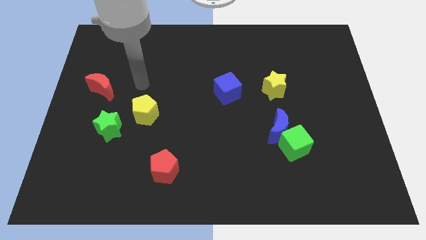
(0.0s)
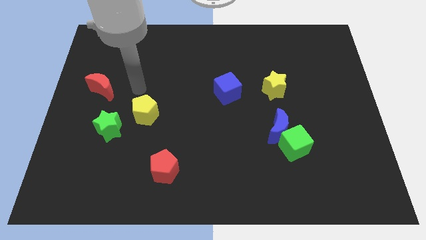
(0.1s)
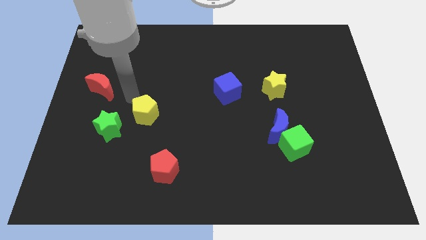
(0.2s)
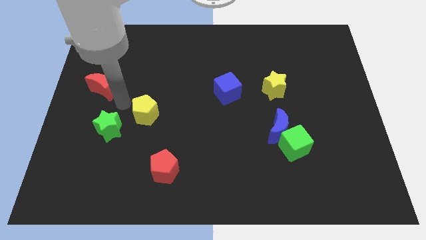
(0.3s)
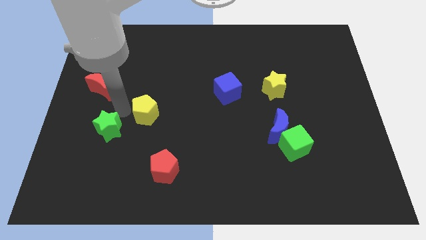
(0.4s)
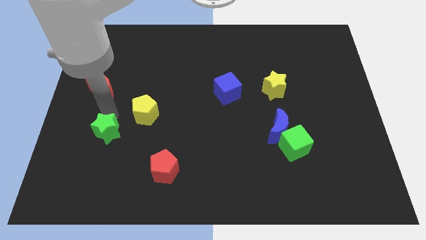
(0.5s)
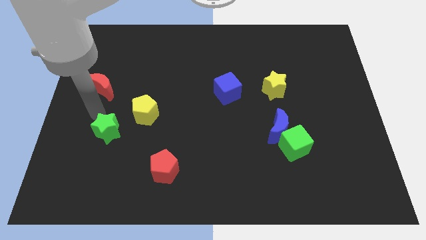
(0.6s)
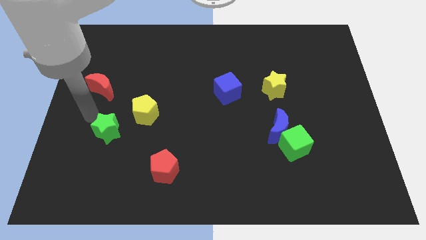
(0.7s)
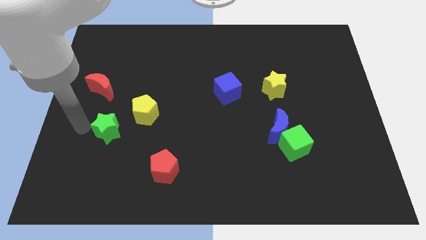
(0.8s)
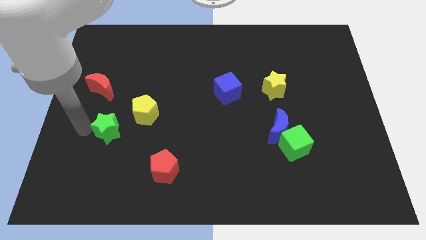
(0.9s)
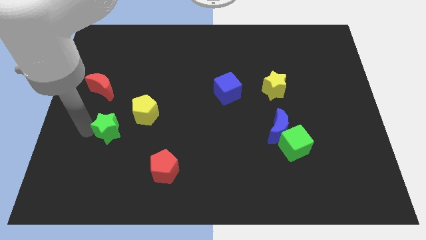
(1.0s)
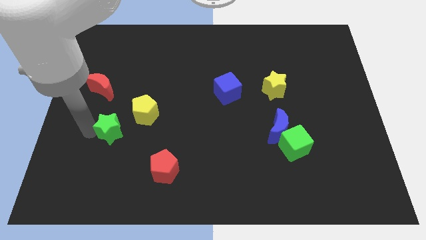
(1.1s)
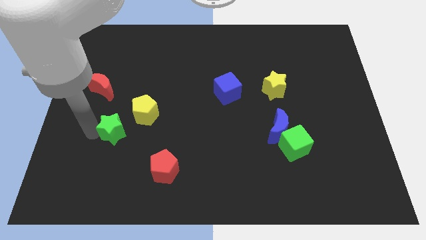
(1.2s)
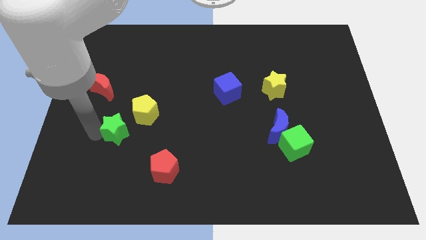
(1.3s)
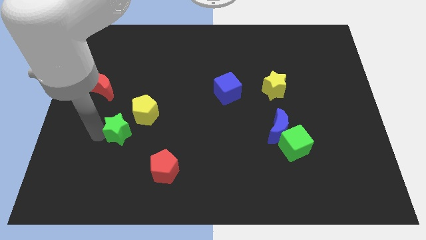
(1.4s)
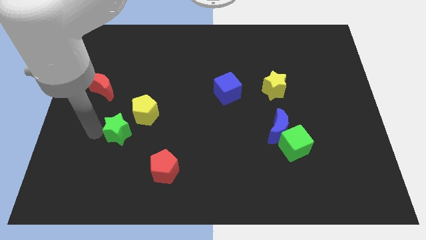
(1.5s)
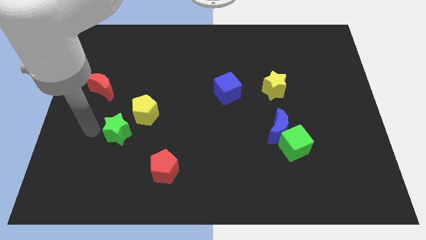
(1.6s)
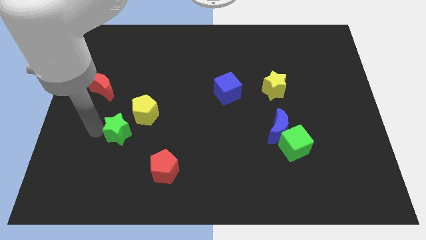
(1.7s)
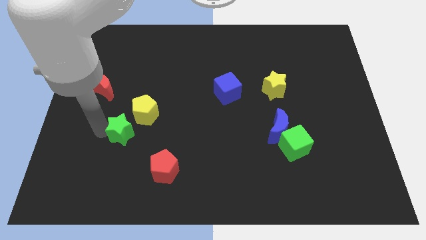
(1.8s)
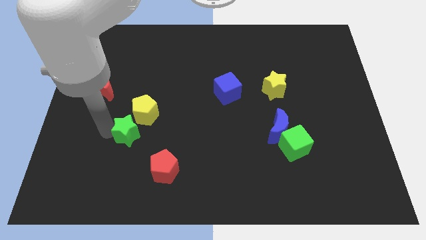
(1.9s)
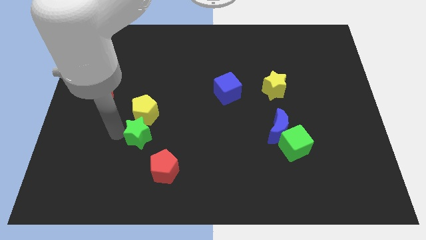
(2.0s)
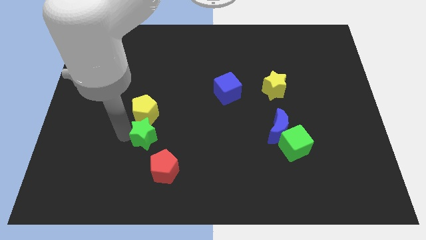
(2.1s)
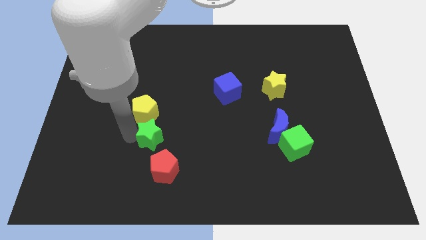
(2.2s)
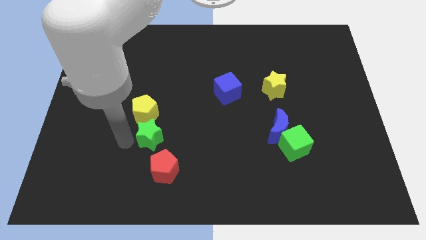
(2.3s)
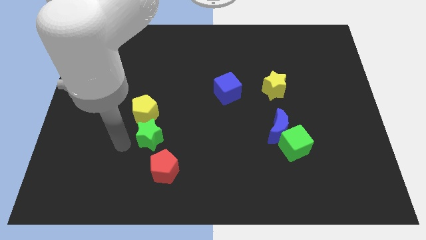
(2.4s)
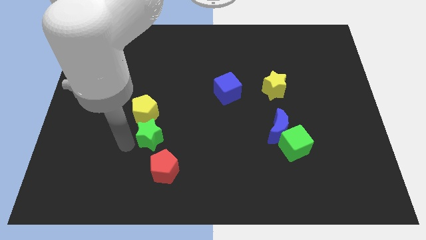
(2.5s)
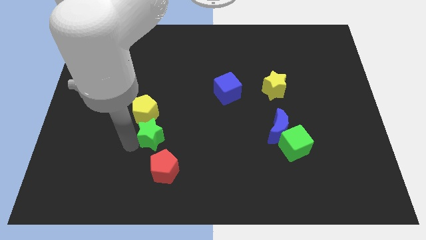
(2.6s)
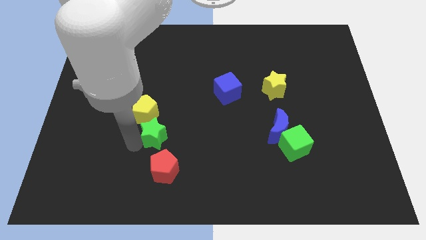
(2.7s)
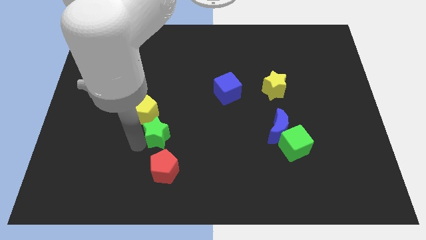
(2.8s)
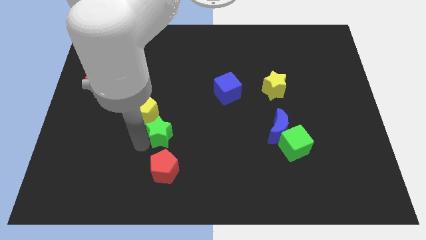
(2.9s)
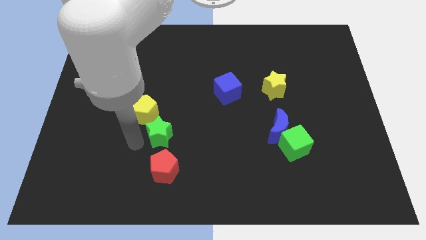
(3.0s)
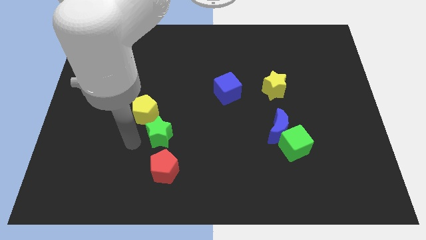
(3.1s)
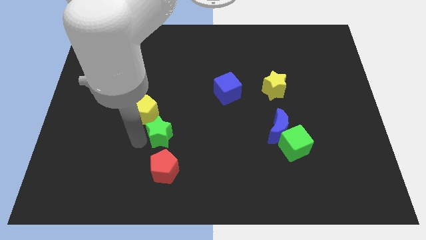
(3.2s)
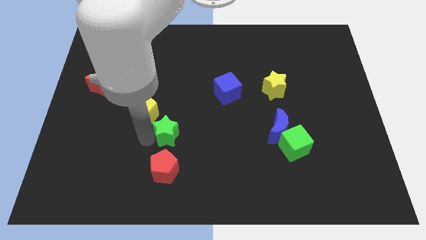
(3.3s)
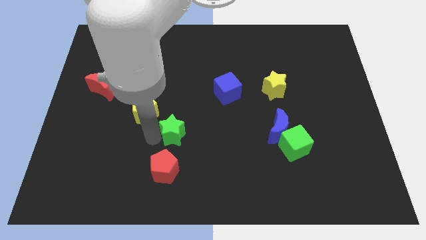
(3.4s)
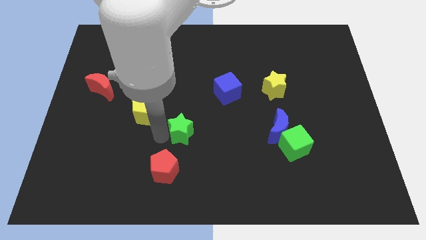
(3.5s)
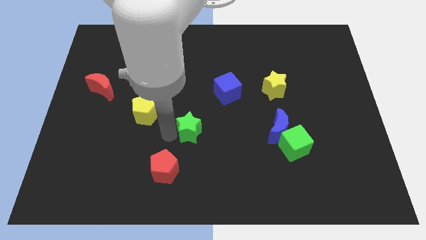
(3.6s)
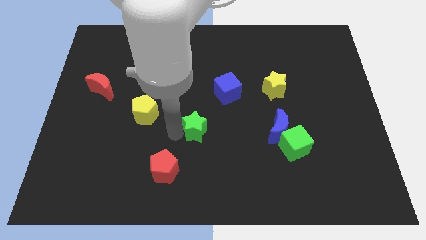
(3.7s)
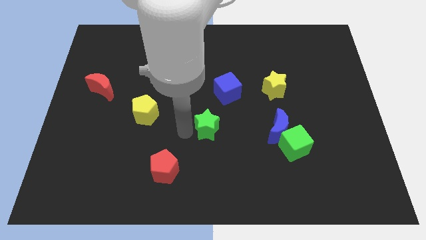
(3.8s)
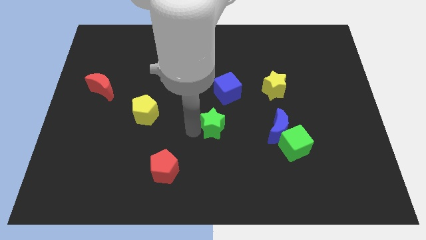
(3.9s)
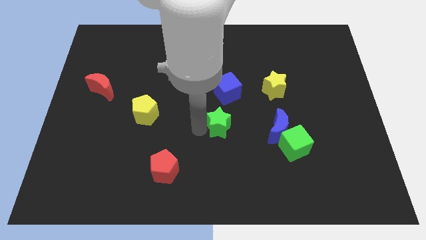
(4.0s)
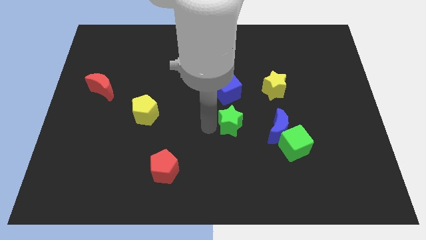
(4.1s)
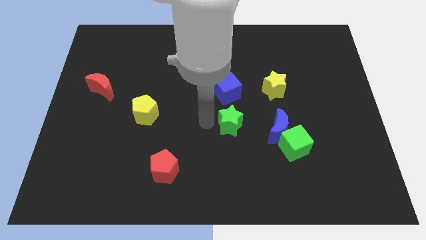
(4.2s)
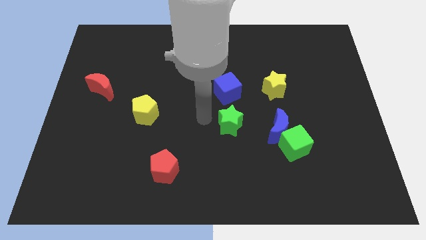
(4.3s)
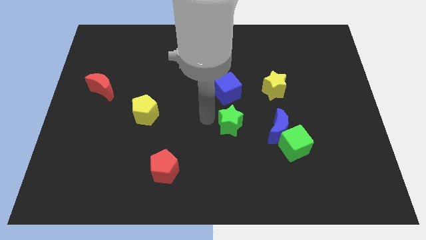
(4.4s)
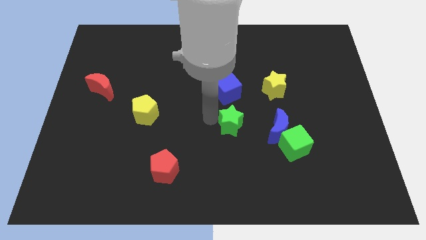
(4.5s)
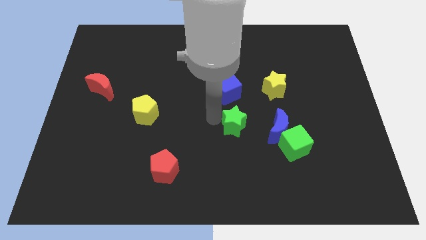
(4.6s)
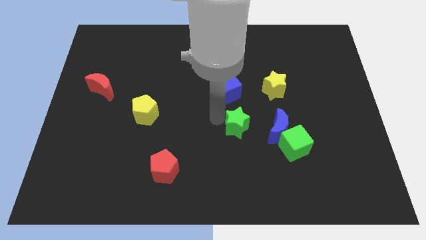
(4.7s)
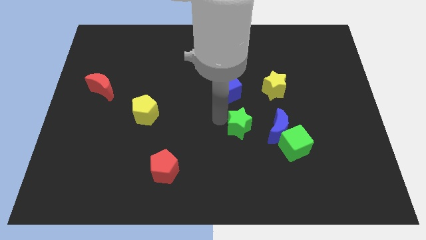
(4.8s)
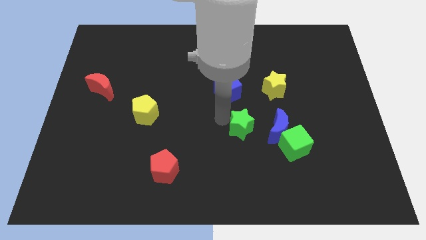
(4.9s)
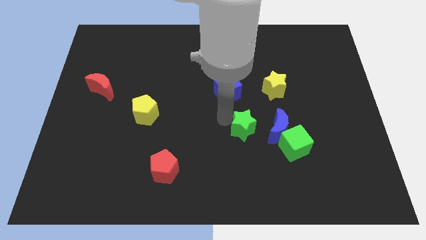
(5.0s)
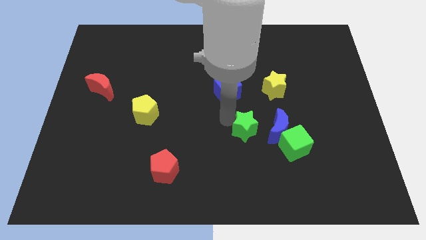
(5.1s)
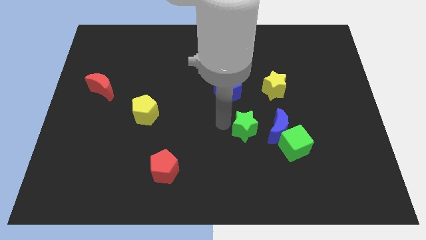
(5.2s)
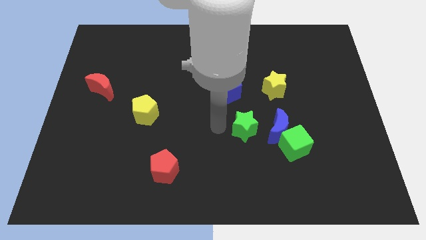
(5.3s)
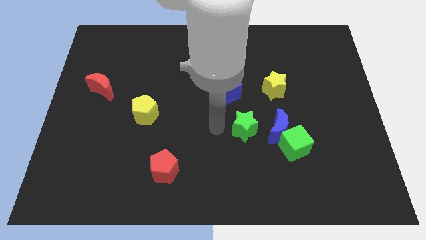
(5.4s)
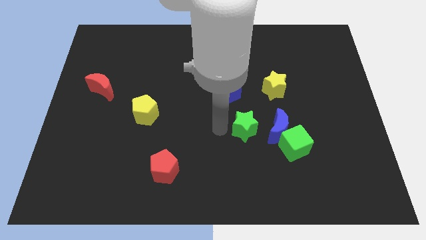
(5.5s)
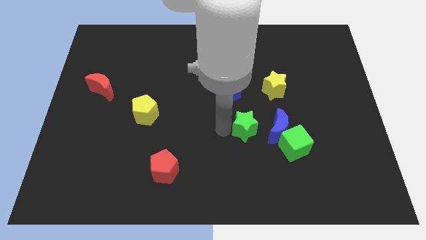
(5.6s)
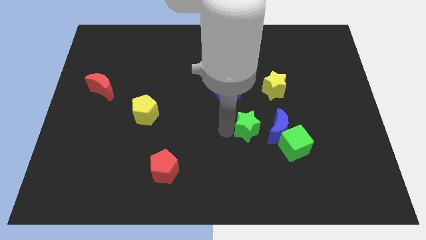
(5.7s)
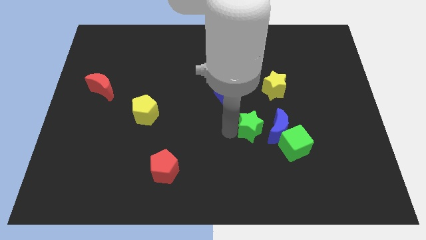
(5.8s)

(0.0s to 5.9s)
slide the green star close to the blue moon

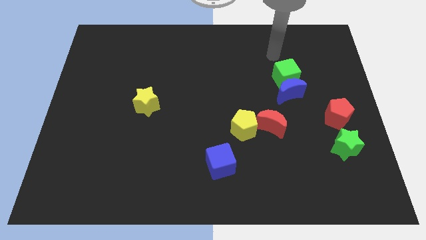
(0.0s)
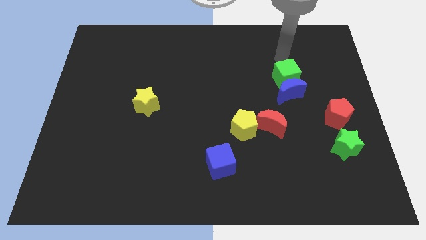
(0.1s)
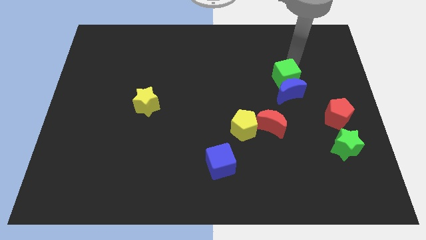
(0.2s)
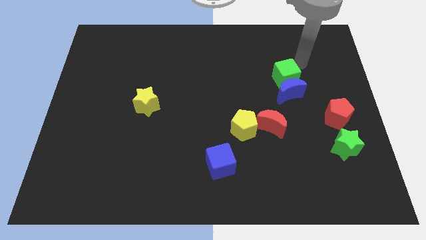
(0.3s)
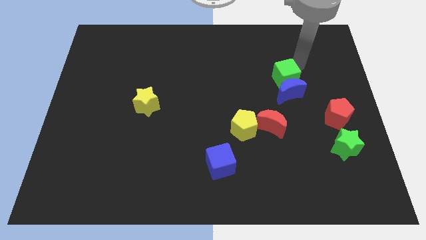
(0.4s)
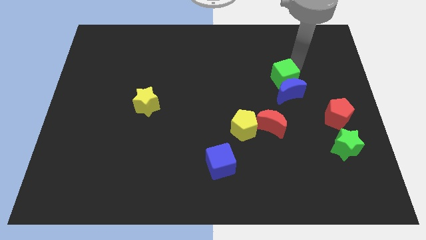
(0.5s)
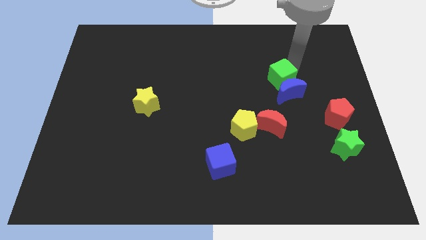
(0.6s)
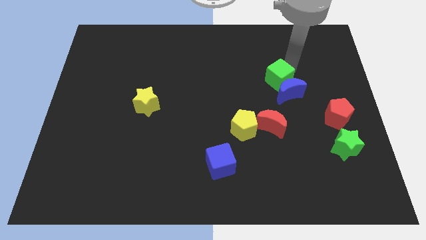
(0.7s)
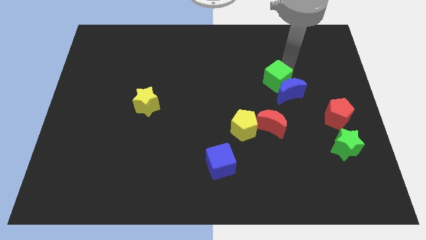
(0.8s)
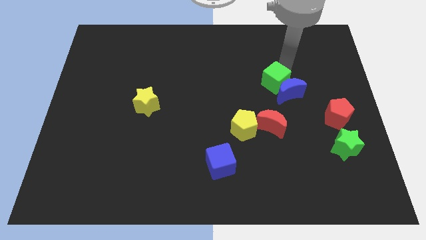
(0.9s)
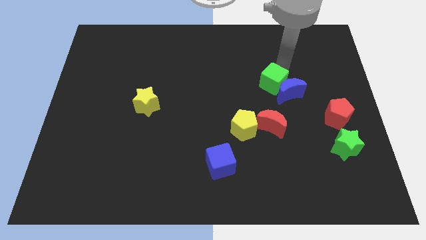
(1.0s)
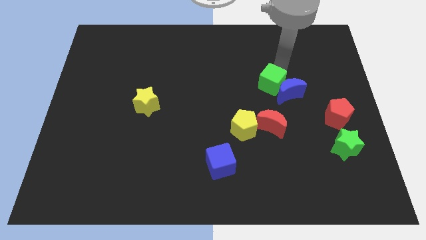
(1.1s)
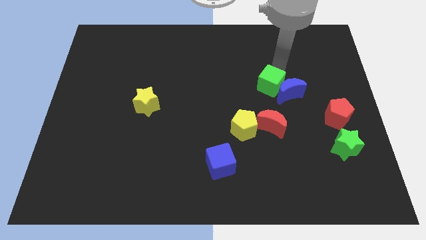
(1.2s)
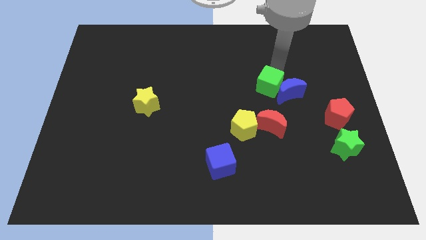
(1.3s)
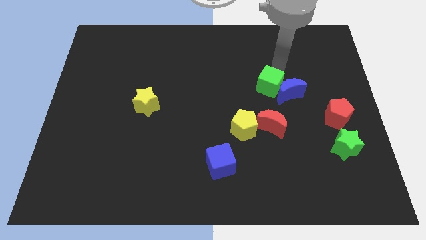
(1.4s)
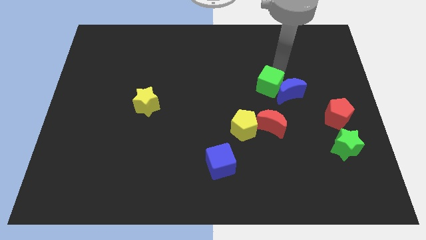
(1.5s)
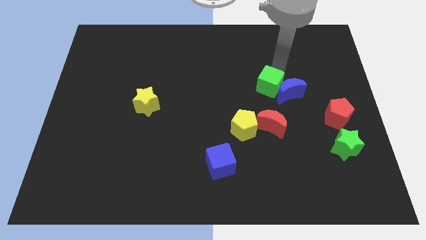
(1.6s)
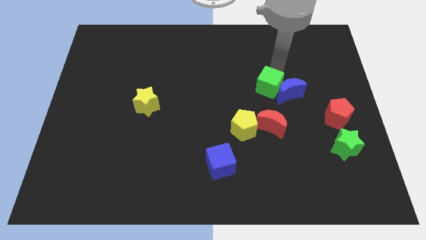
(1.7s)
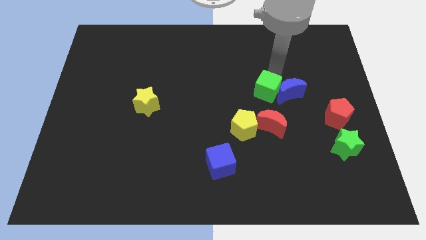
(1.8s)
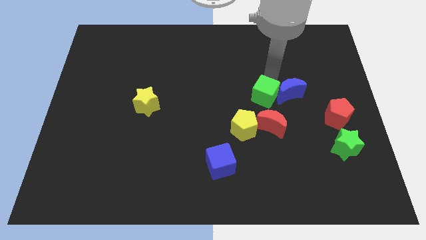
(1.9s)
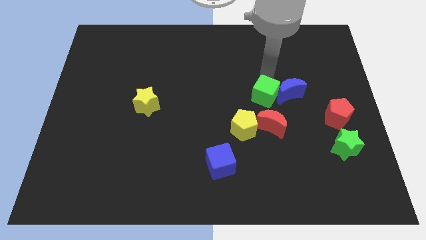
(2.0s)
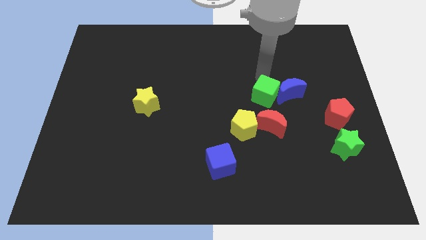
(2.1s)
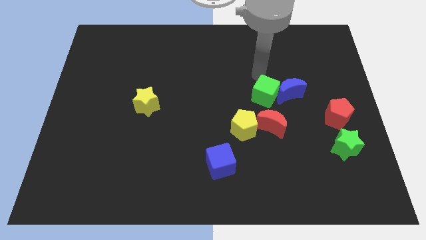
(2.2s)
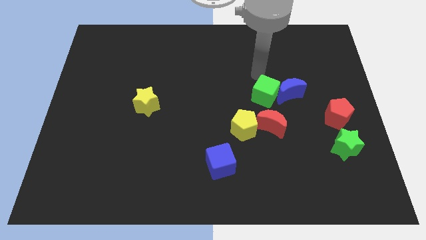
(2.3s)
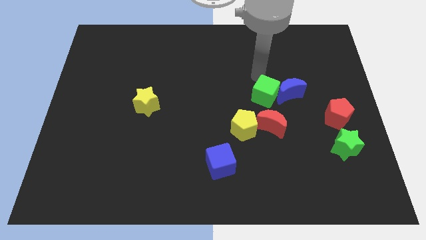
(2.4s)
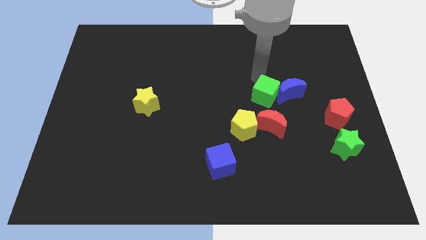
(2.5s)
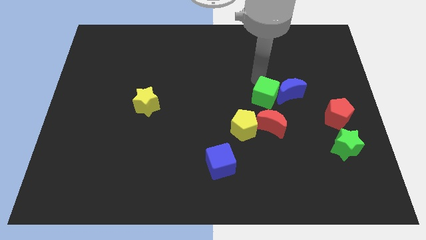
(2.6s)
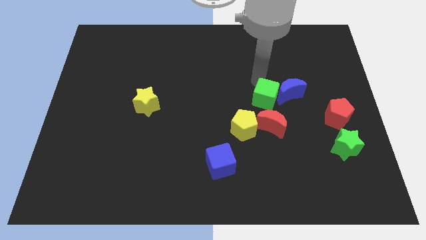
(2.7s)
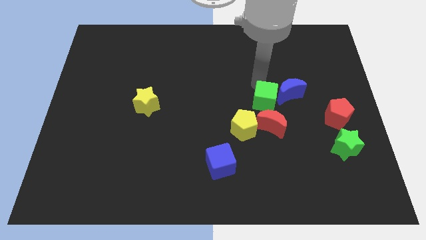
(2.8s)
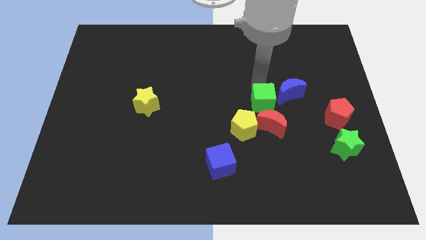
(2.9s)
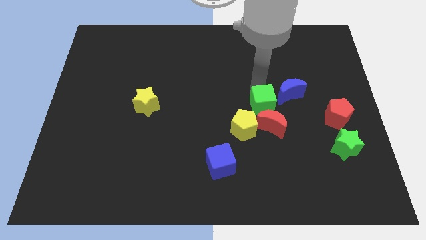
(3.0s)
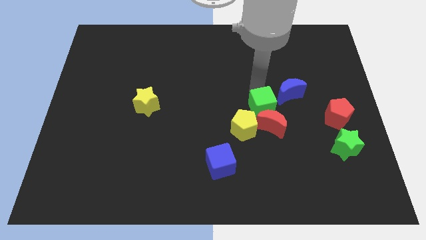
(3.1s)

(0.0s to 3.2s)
put the green cube towards the red moon
